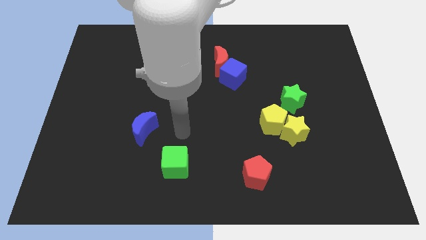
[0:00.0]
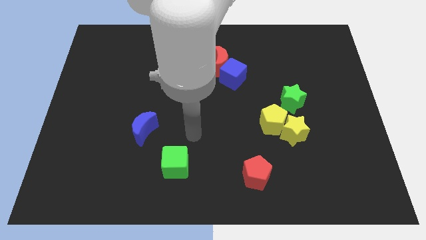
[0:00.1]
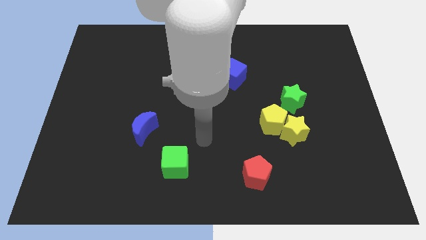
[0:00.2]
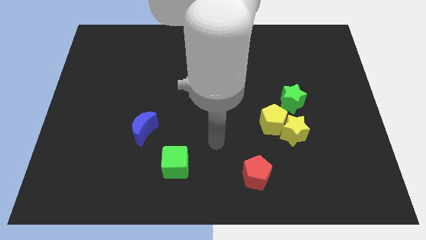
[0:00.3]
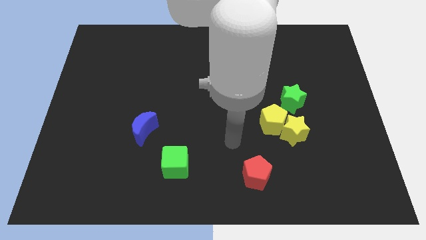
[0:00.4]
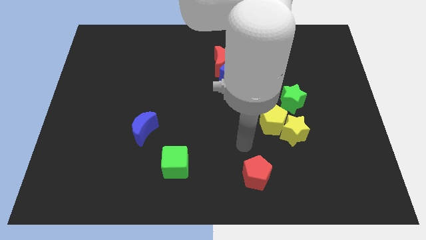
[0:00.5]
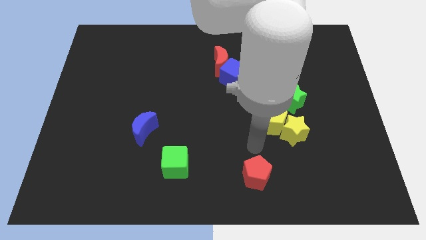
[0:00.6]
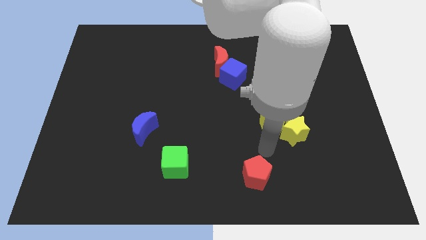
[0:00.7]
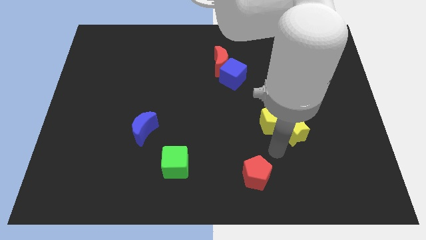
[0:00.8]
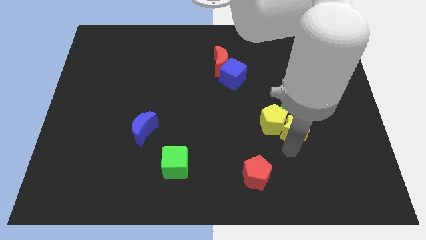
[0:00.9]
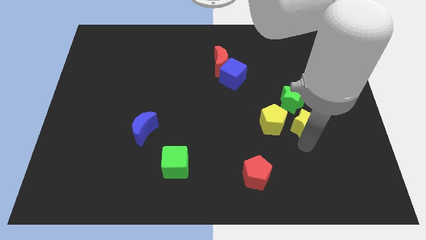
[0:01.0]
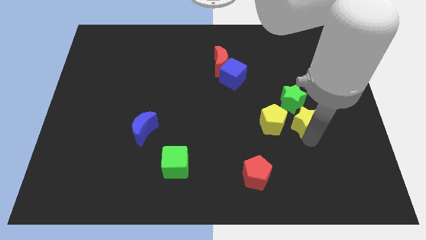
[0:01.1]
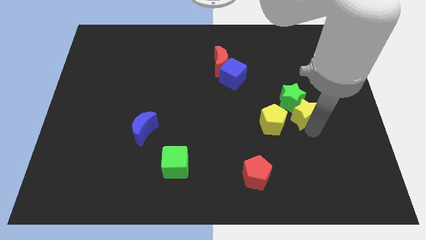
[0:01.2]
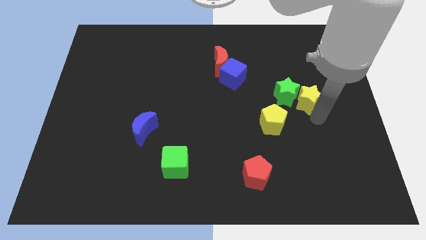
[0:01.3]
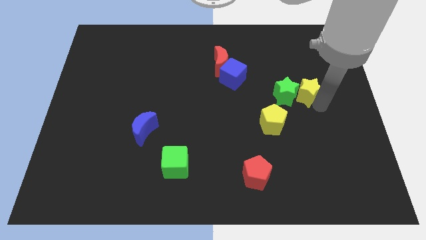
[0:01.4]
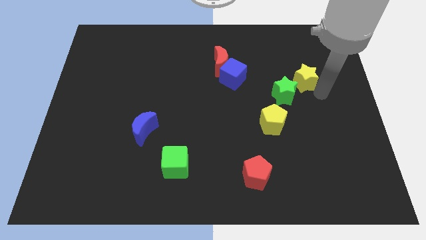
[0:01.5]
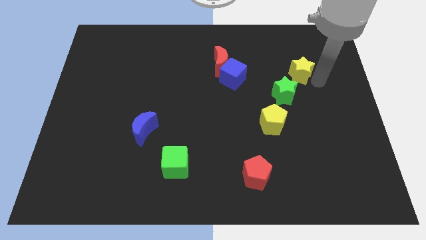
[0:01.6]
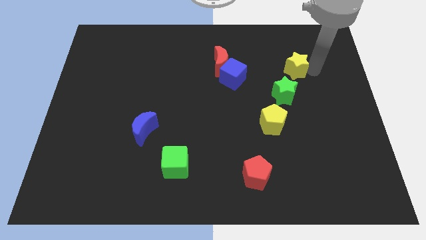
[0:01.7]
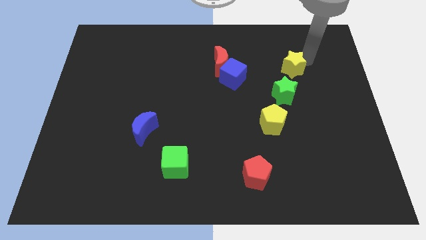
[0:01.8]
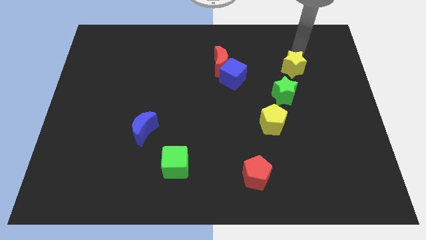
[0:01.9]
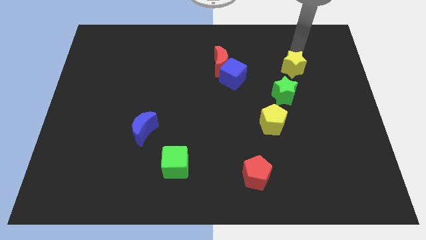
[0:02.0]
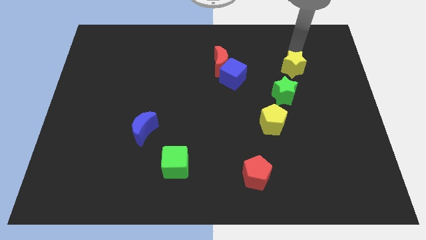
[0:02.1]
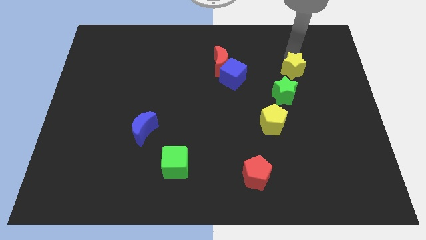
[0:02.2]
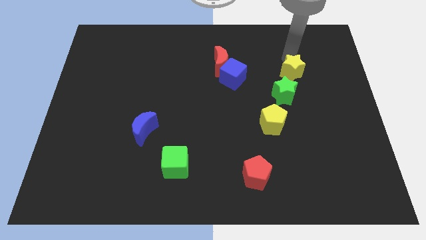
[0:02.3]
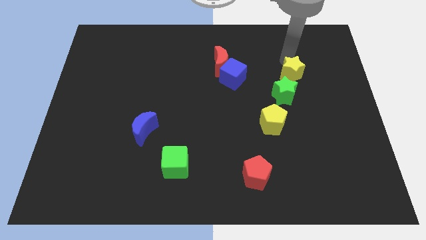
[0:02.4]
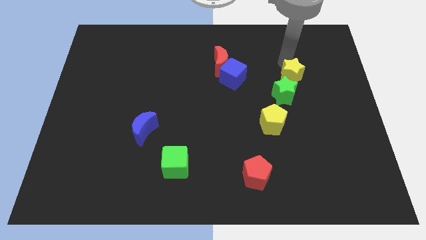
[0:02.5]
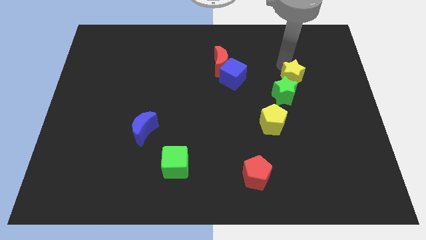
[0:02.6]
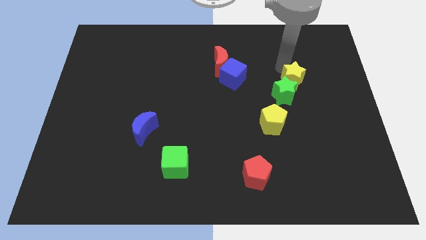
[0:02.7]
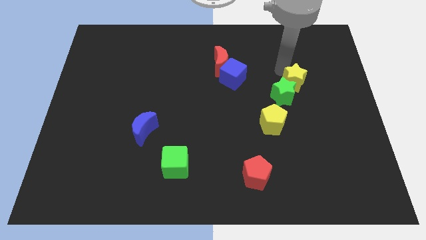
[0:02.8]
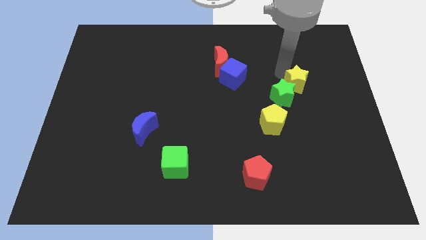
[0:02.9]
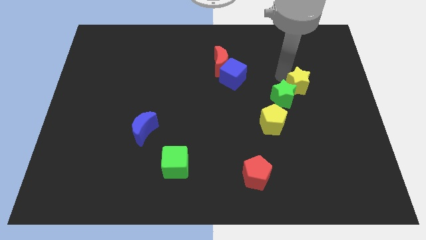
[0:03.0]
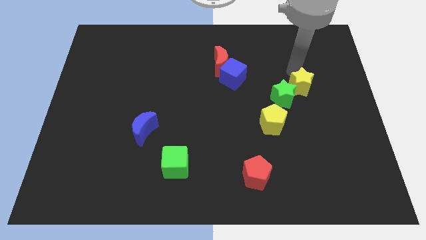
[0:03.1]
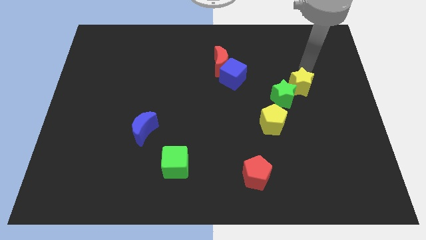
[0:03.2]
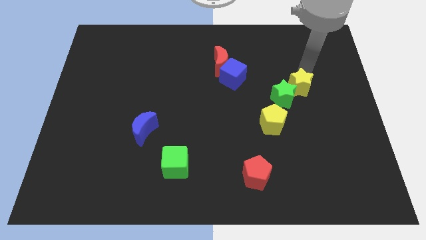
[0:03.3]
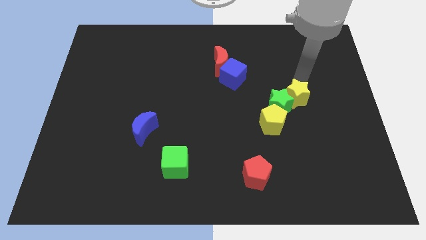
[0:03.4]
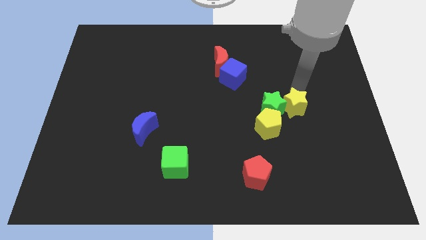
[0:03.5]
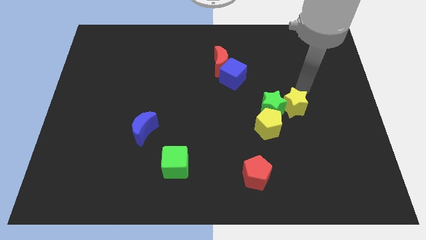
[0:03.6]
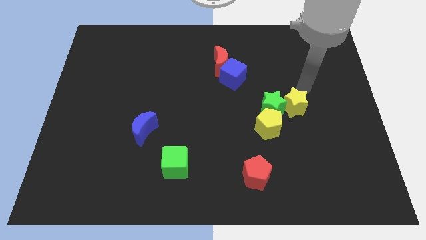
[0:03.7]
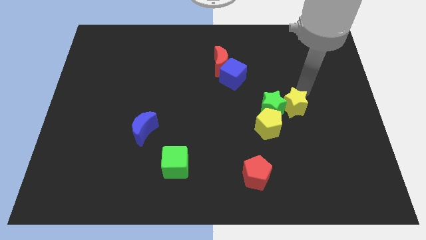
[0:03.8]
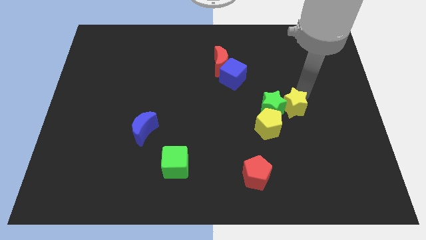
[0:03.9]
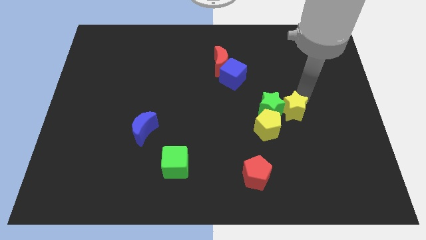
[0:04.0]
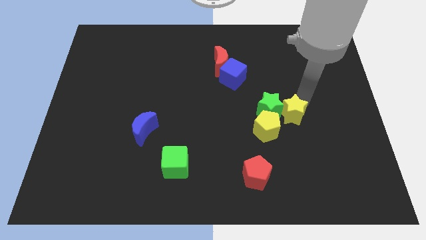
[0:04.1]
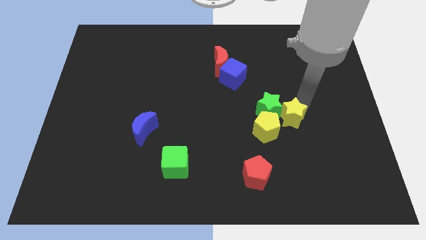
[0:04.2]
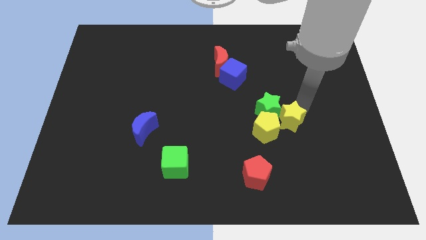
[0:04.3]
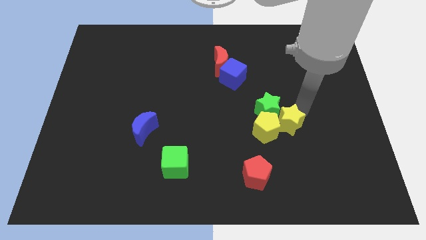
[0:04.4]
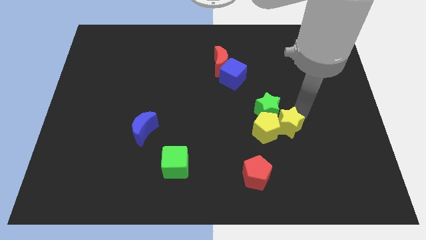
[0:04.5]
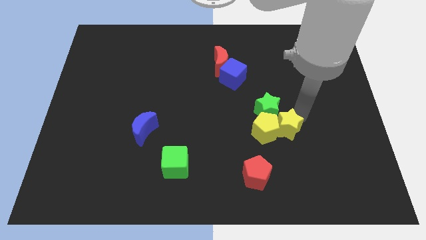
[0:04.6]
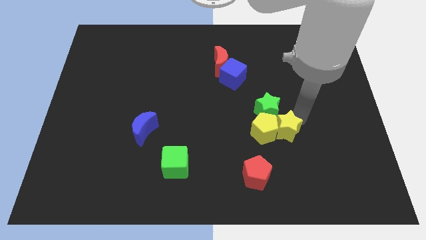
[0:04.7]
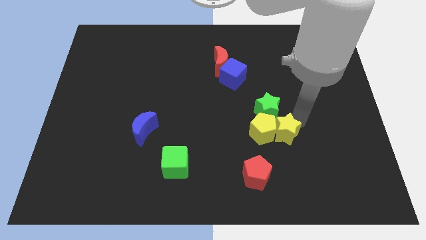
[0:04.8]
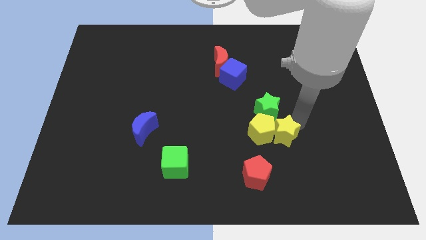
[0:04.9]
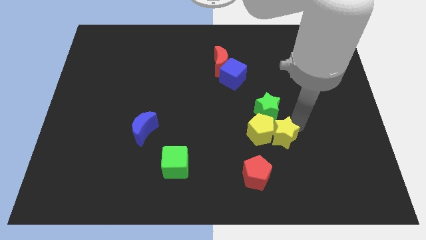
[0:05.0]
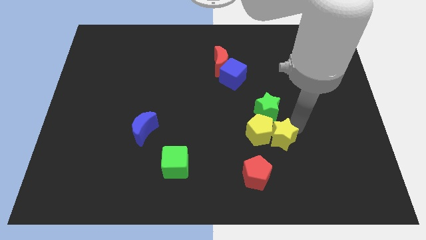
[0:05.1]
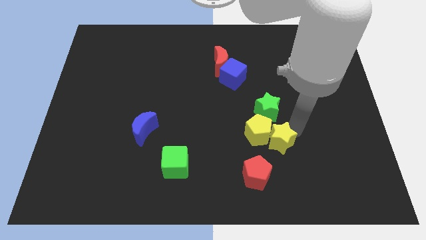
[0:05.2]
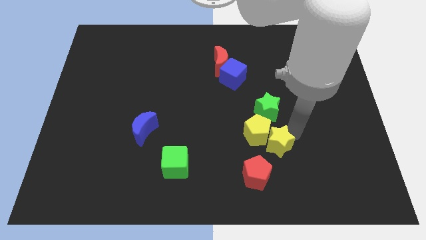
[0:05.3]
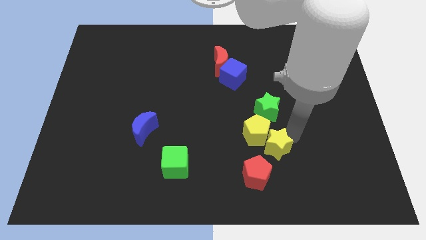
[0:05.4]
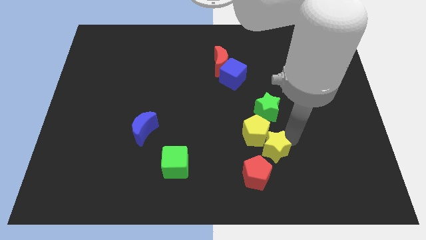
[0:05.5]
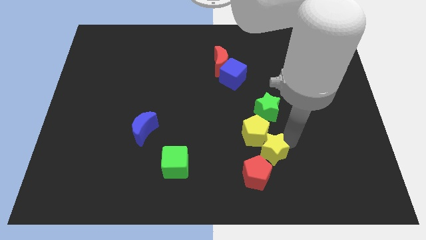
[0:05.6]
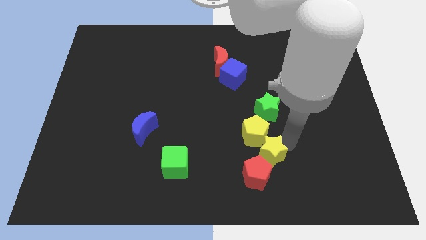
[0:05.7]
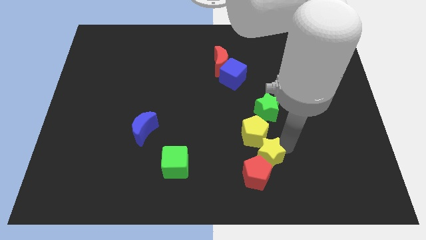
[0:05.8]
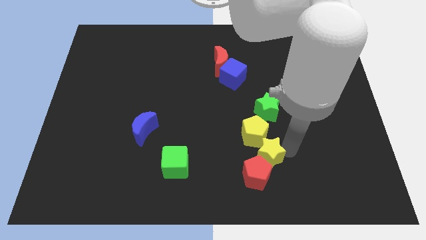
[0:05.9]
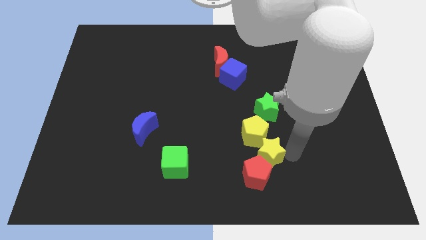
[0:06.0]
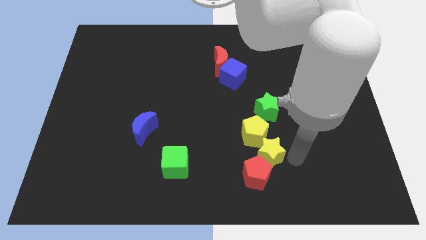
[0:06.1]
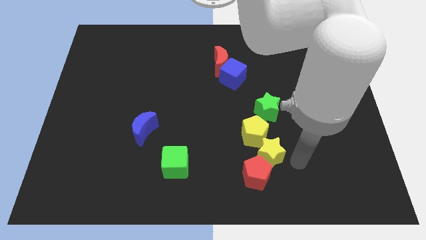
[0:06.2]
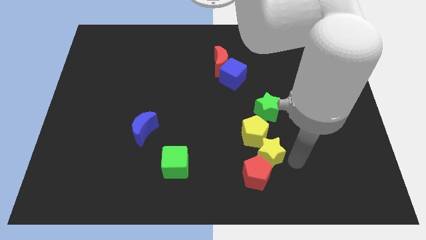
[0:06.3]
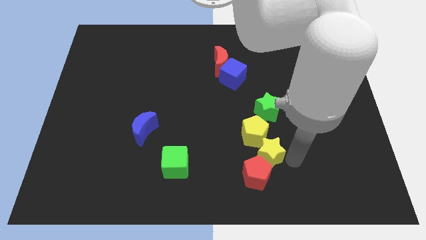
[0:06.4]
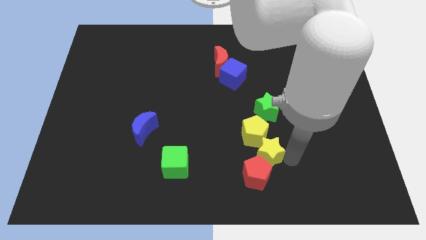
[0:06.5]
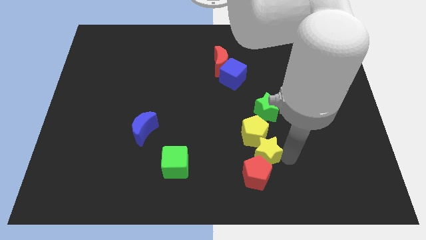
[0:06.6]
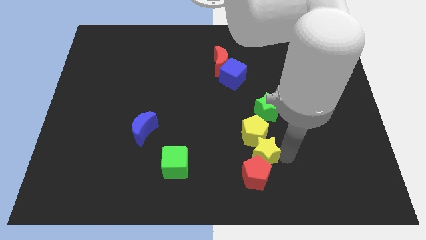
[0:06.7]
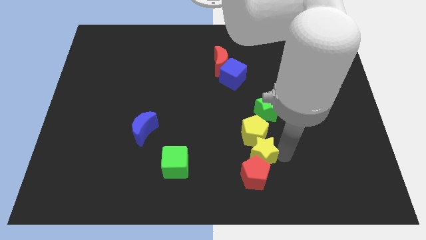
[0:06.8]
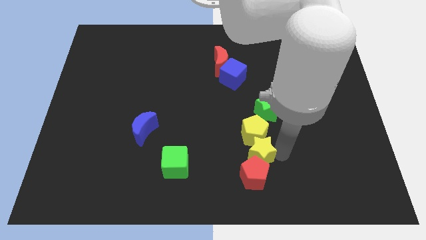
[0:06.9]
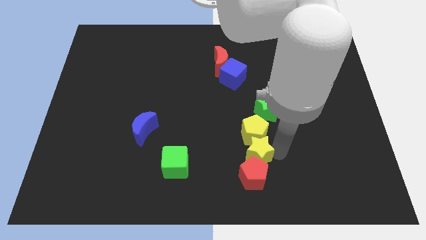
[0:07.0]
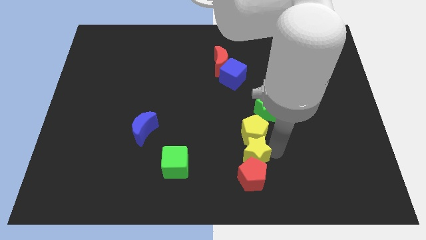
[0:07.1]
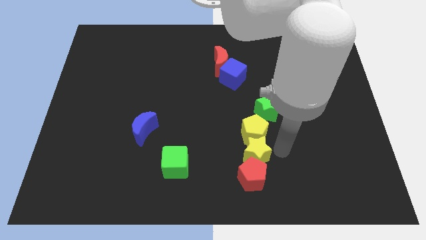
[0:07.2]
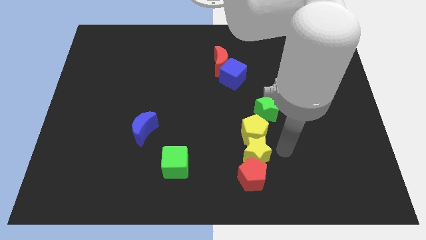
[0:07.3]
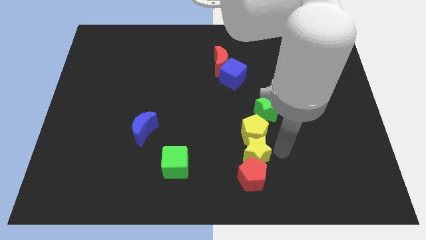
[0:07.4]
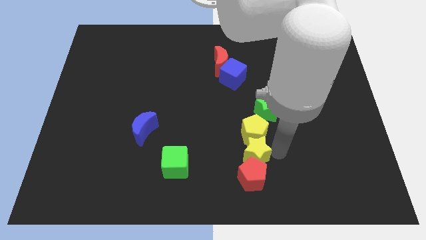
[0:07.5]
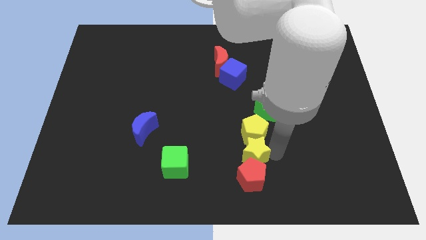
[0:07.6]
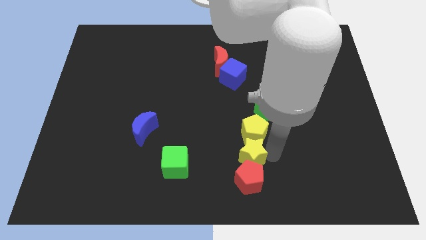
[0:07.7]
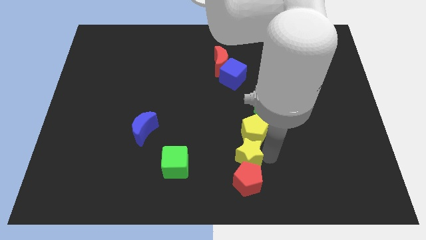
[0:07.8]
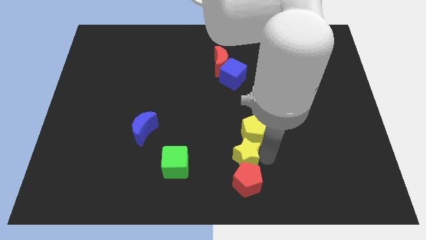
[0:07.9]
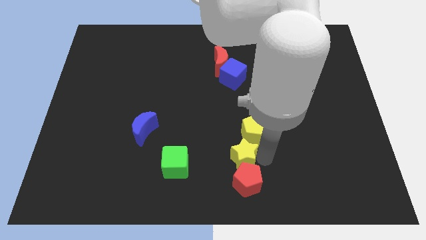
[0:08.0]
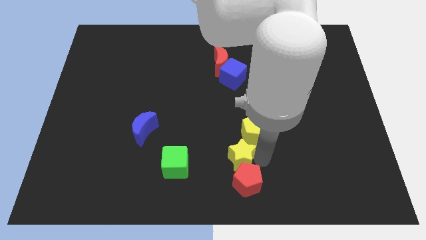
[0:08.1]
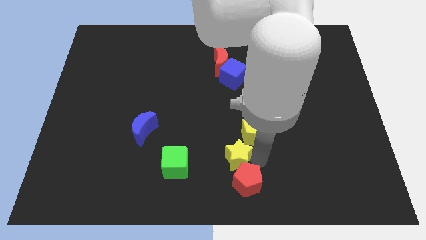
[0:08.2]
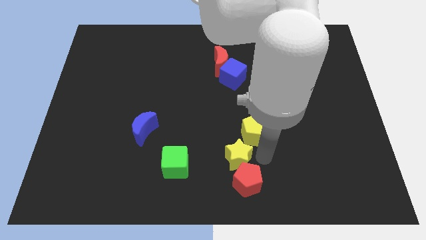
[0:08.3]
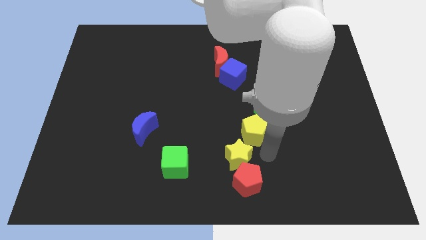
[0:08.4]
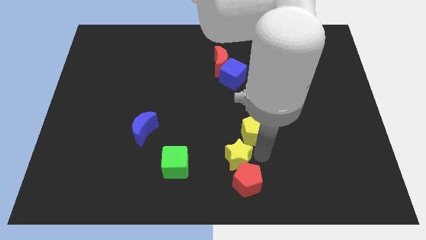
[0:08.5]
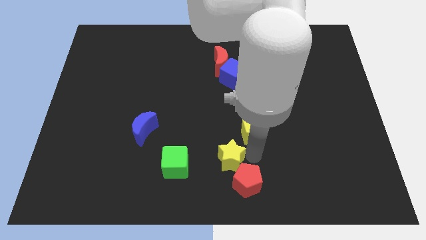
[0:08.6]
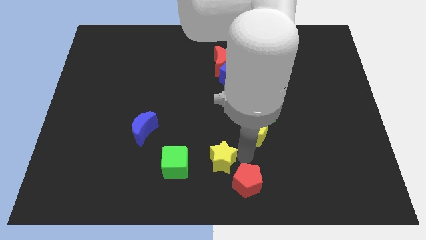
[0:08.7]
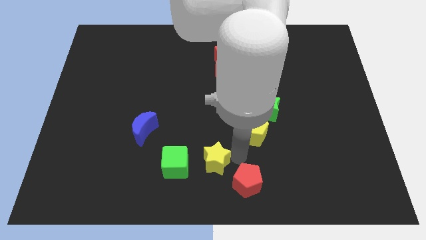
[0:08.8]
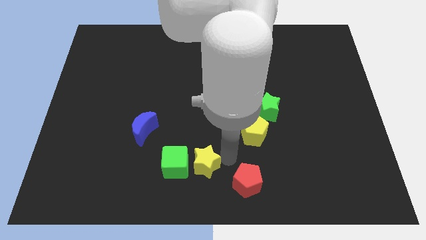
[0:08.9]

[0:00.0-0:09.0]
move the yellow star towards the green cube
